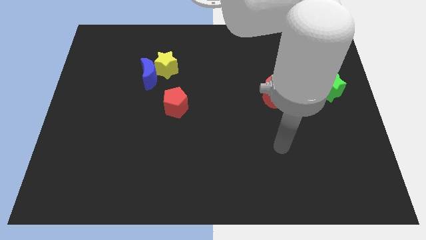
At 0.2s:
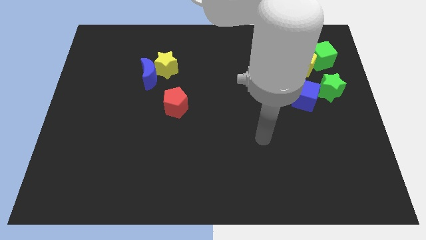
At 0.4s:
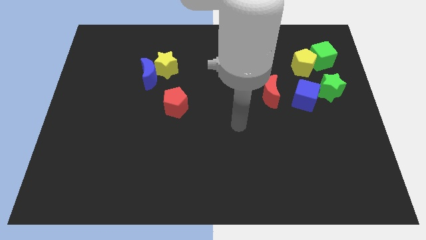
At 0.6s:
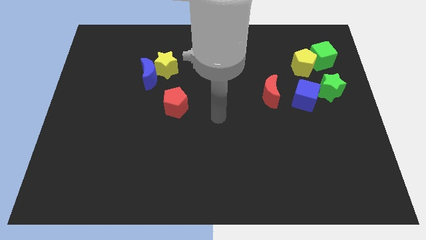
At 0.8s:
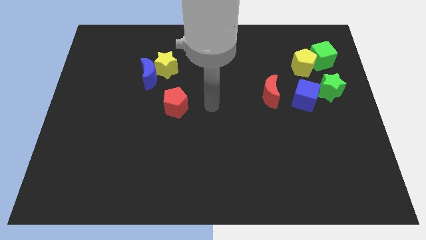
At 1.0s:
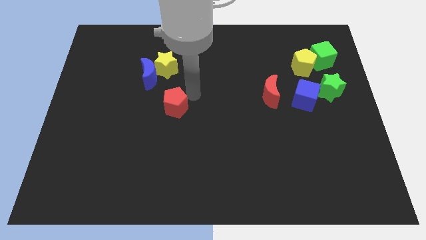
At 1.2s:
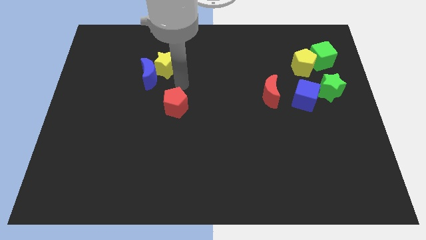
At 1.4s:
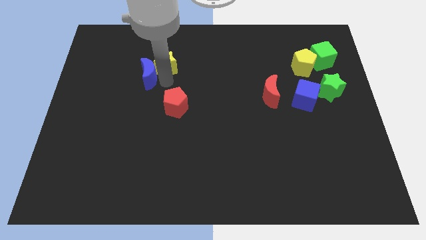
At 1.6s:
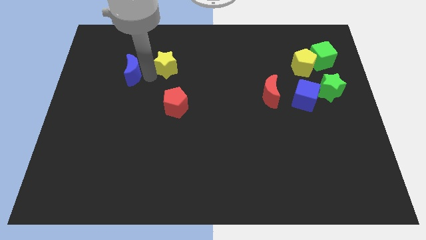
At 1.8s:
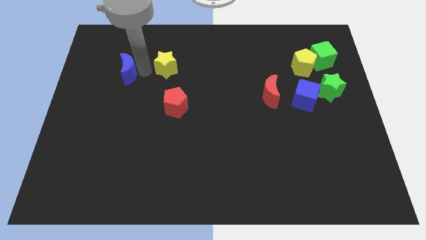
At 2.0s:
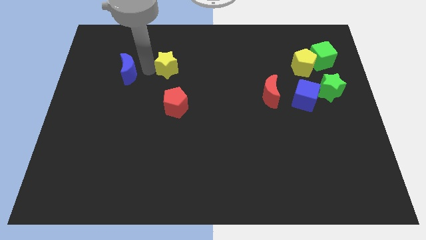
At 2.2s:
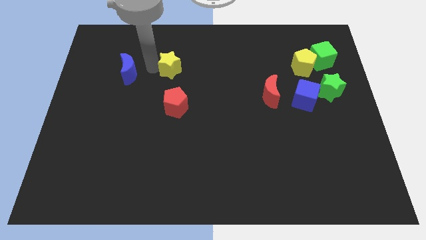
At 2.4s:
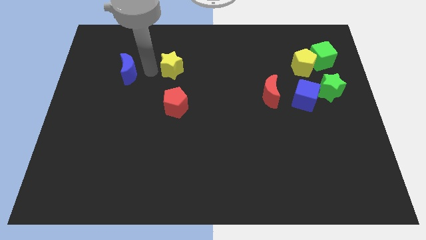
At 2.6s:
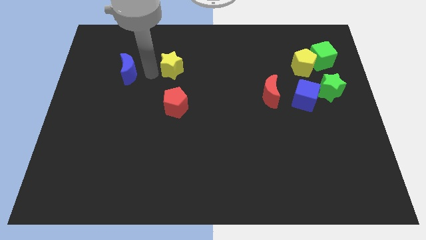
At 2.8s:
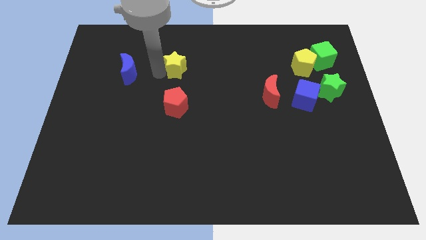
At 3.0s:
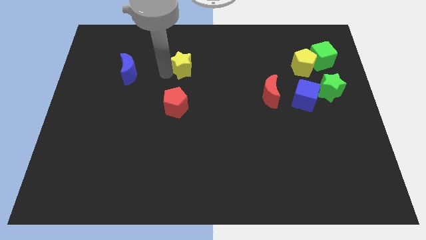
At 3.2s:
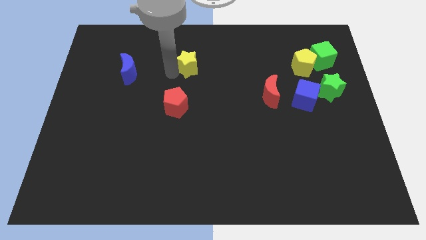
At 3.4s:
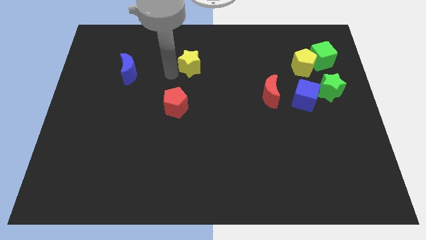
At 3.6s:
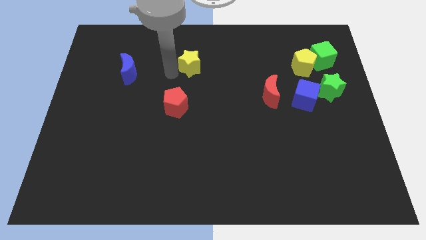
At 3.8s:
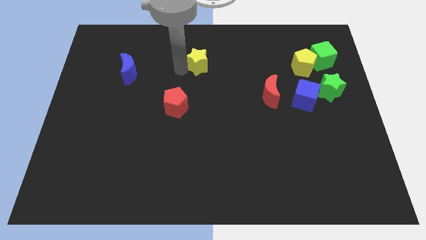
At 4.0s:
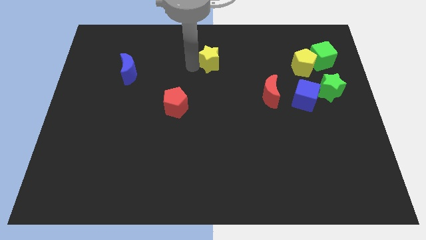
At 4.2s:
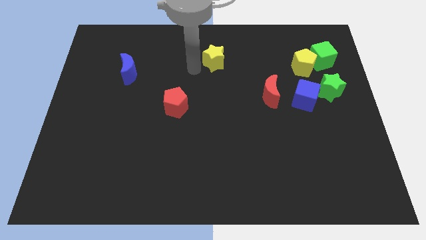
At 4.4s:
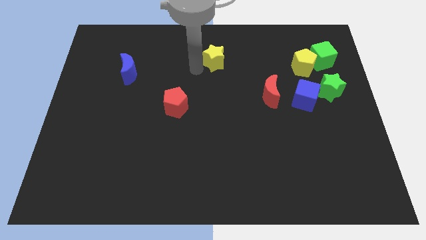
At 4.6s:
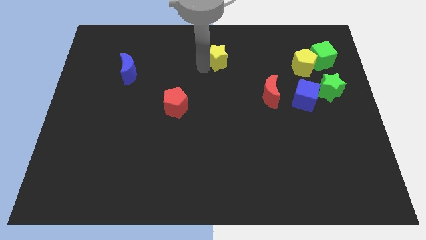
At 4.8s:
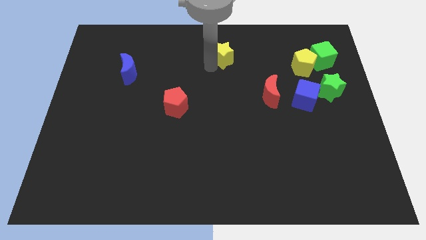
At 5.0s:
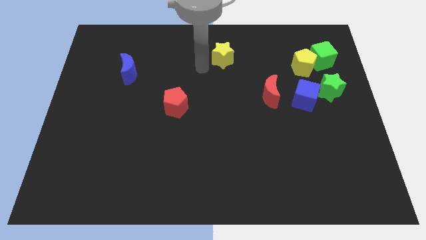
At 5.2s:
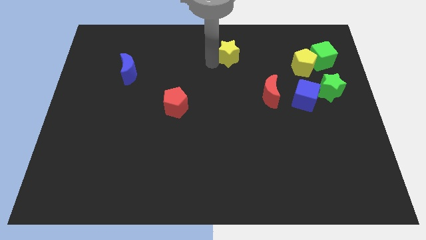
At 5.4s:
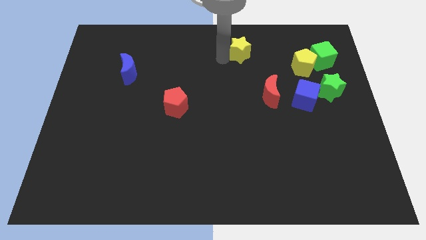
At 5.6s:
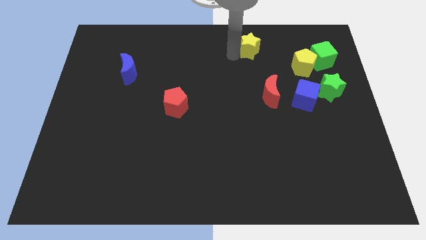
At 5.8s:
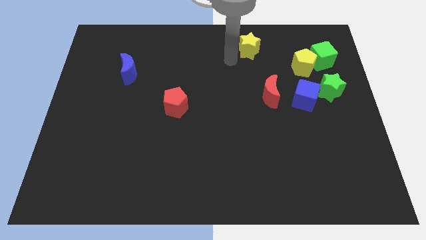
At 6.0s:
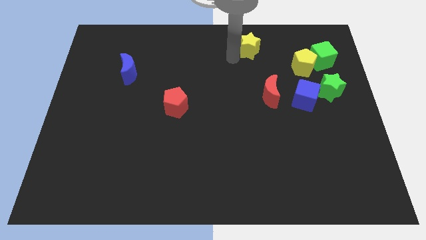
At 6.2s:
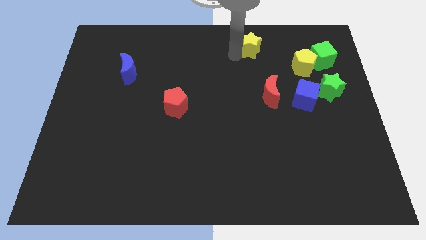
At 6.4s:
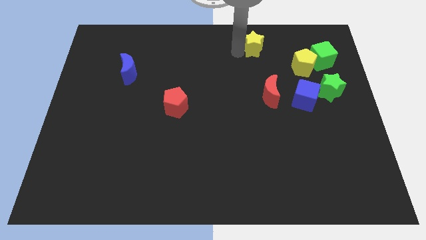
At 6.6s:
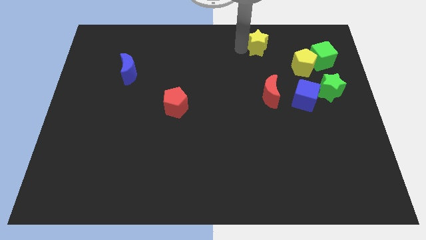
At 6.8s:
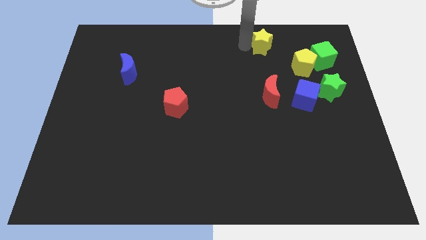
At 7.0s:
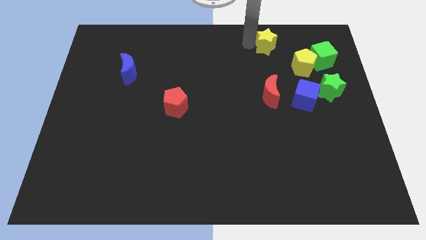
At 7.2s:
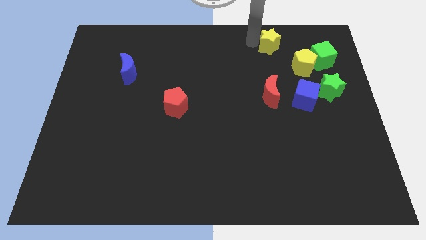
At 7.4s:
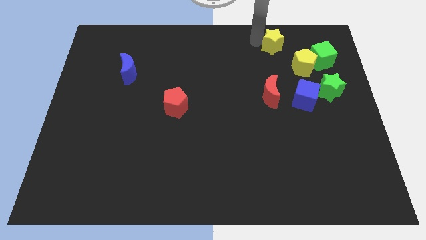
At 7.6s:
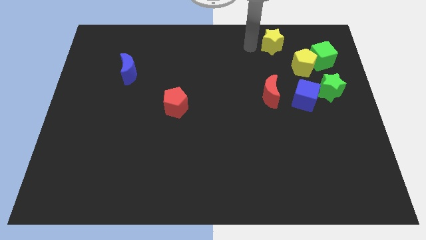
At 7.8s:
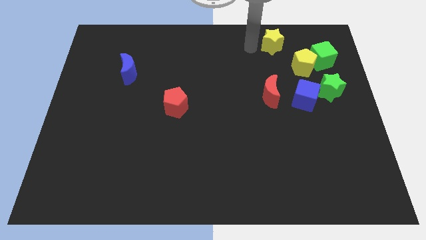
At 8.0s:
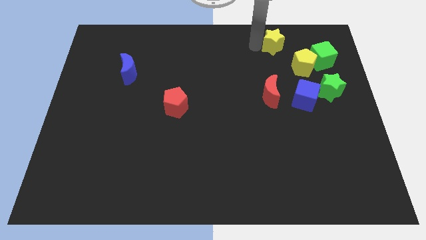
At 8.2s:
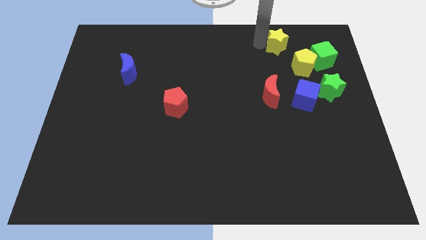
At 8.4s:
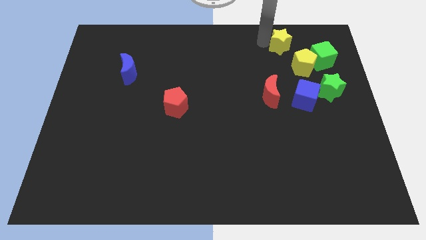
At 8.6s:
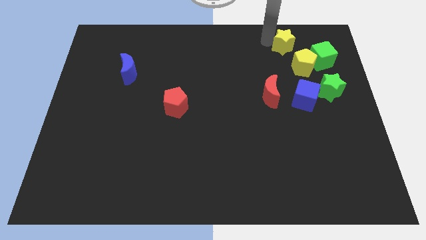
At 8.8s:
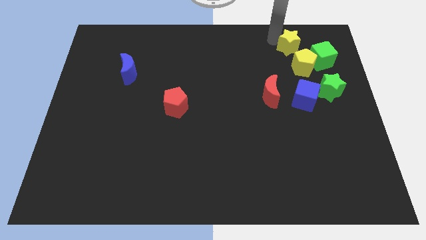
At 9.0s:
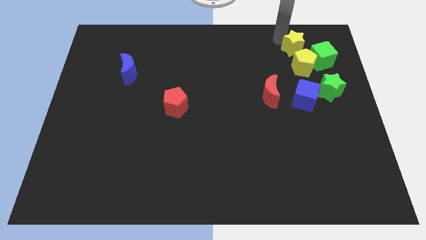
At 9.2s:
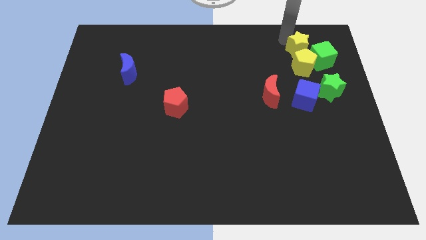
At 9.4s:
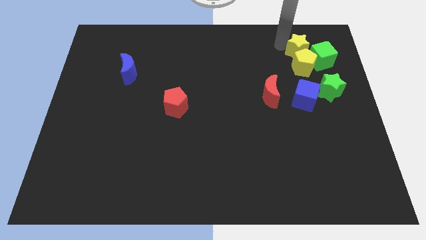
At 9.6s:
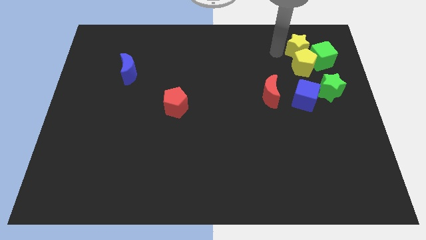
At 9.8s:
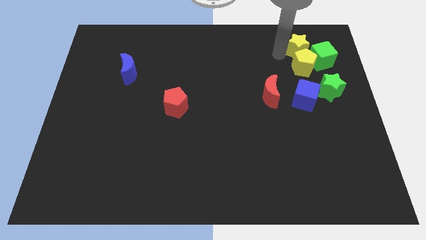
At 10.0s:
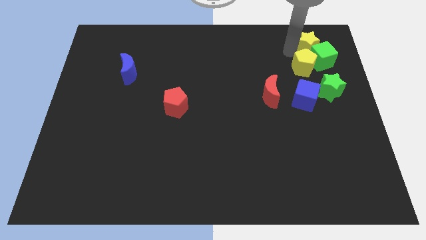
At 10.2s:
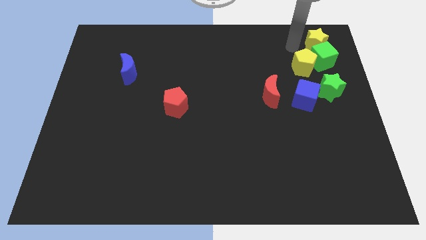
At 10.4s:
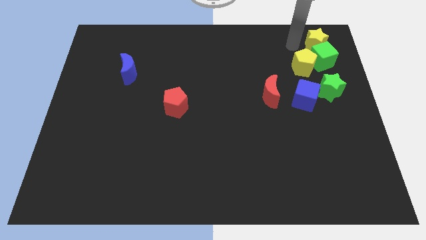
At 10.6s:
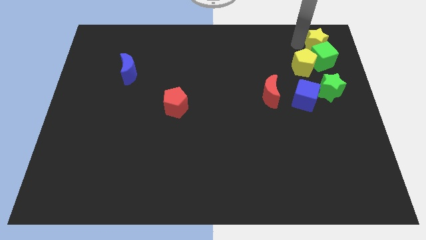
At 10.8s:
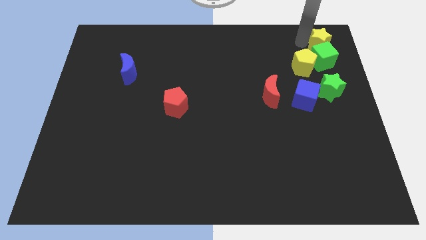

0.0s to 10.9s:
push the yellow star to the upper right corner
